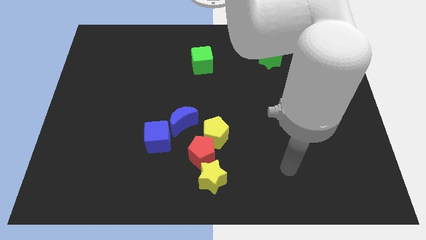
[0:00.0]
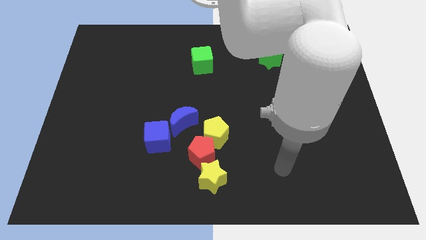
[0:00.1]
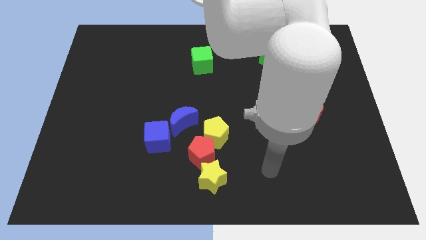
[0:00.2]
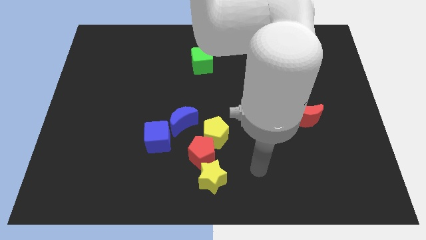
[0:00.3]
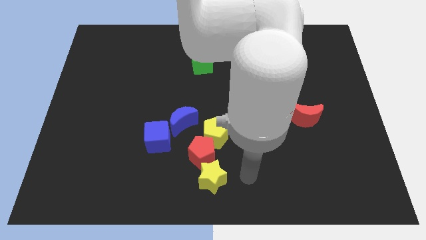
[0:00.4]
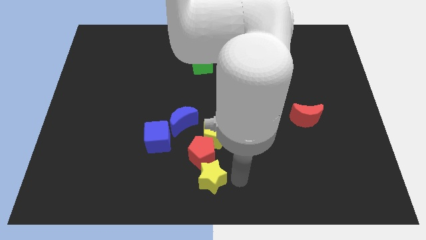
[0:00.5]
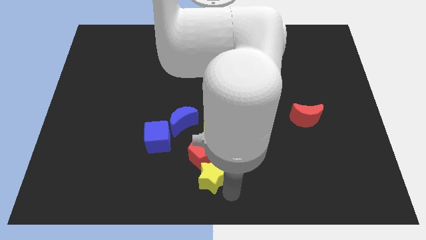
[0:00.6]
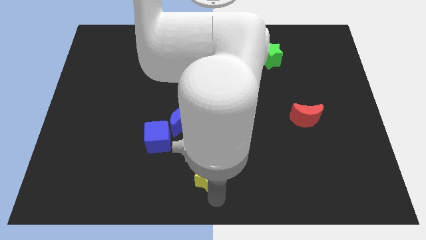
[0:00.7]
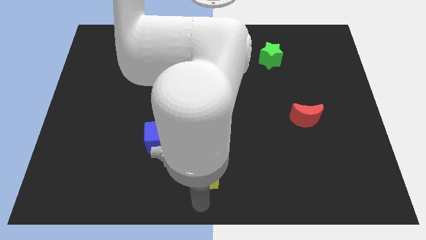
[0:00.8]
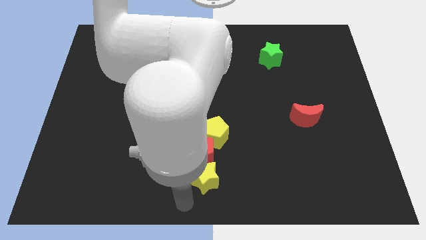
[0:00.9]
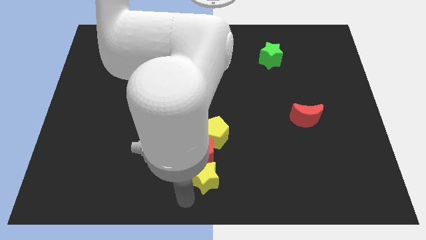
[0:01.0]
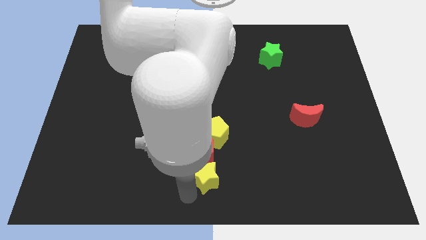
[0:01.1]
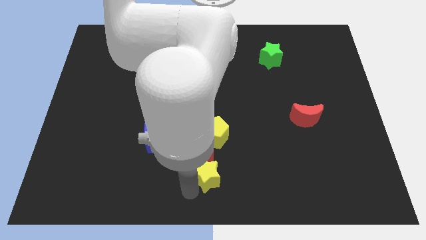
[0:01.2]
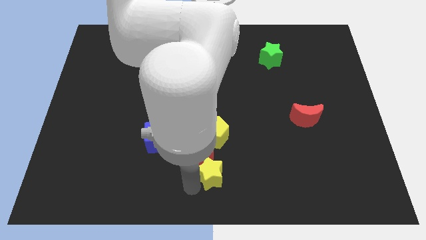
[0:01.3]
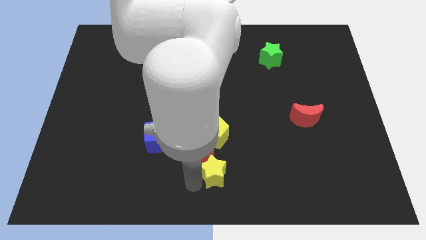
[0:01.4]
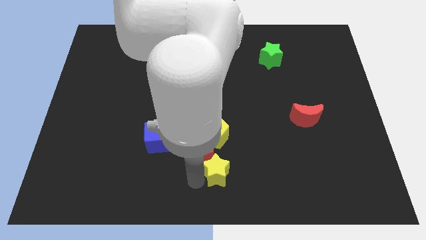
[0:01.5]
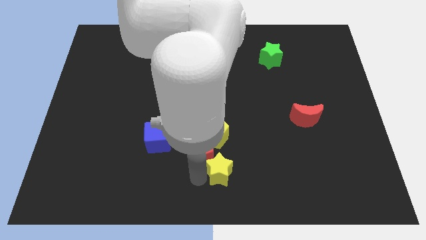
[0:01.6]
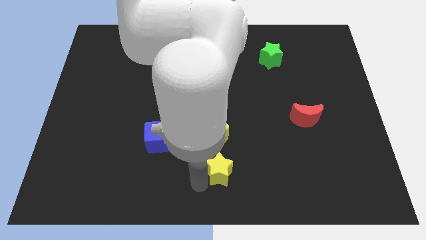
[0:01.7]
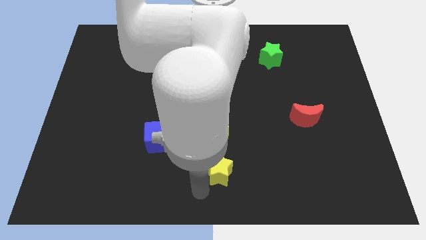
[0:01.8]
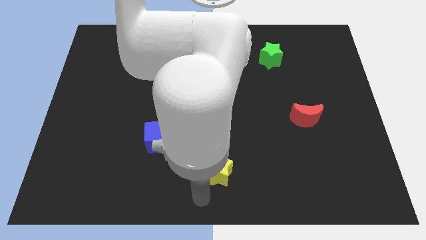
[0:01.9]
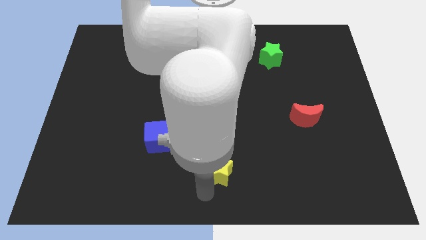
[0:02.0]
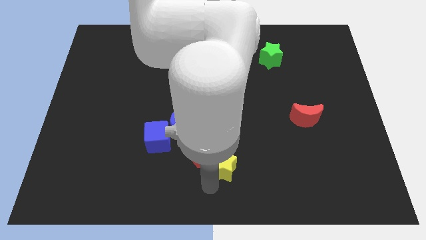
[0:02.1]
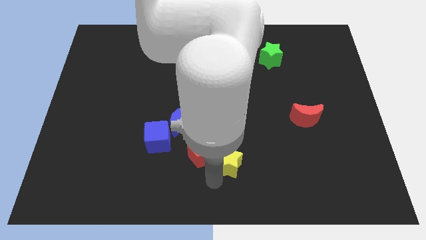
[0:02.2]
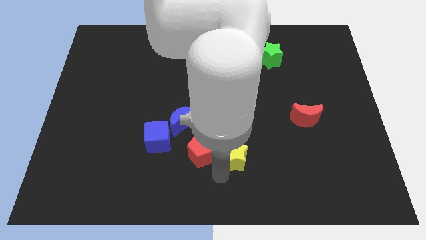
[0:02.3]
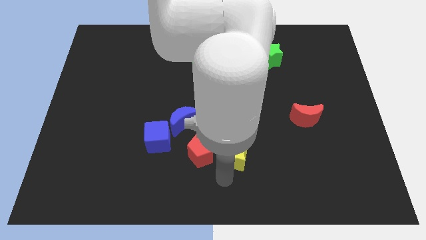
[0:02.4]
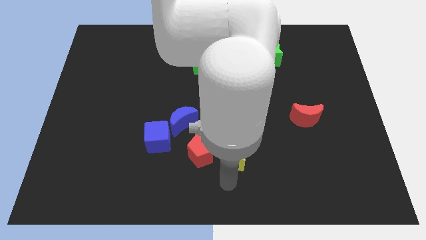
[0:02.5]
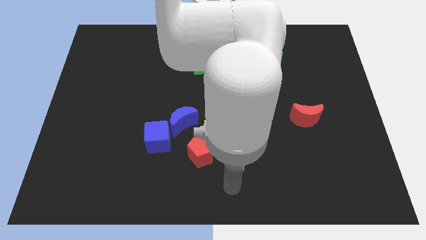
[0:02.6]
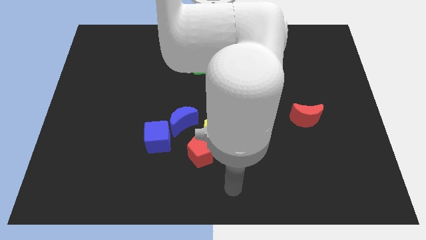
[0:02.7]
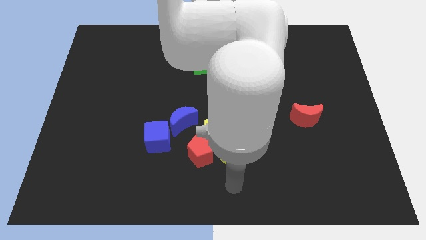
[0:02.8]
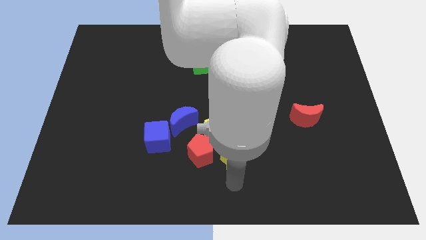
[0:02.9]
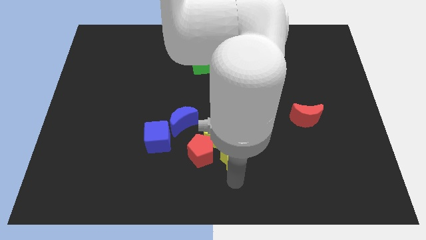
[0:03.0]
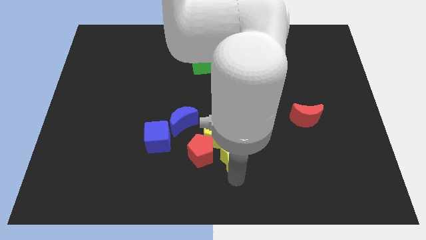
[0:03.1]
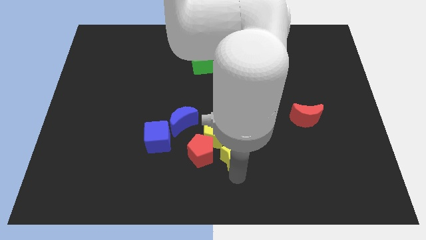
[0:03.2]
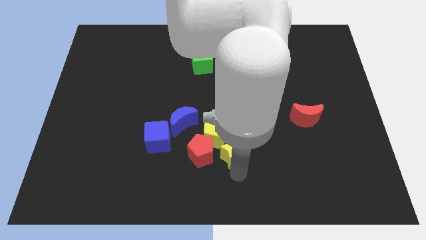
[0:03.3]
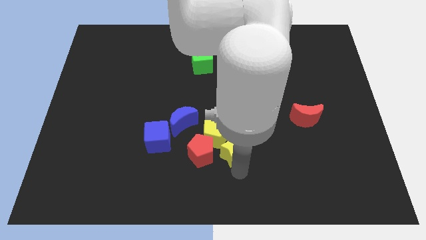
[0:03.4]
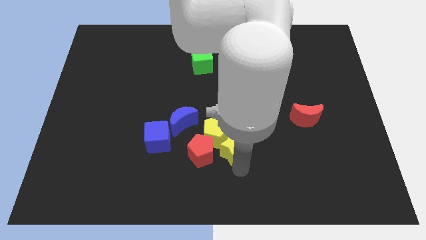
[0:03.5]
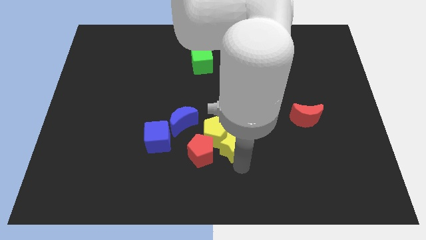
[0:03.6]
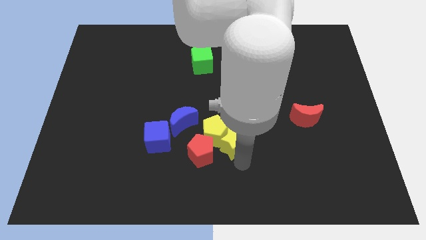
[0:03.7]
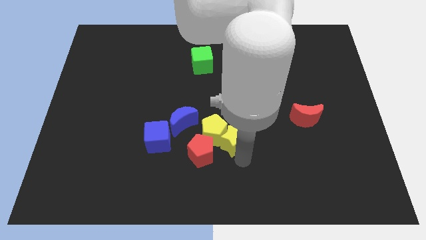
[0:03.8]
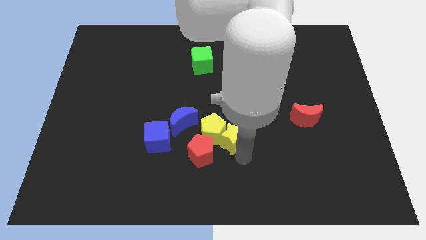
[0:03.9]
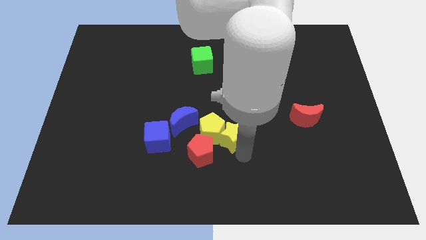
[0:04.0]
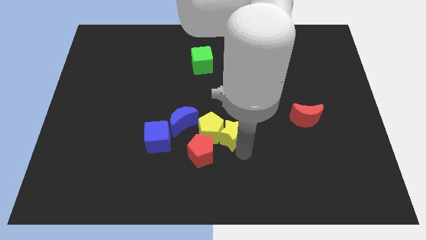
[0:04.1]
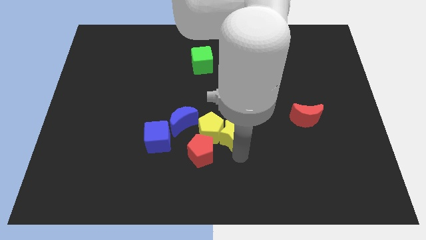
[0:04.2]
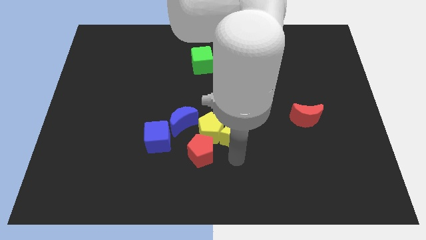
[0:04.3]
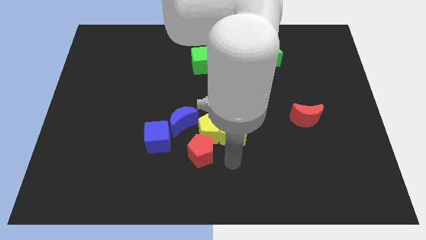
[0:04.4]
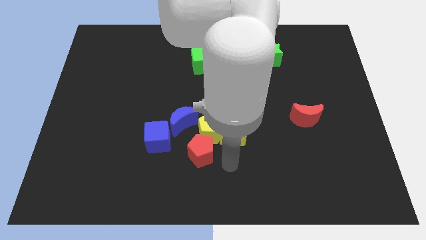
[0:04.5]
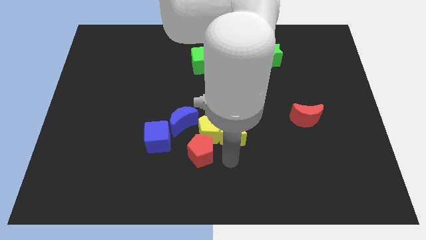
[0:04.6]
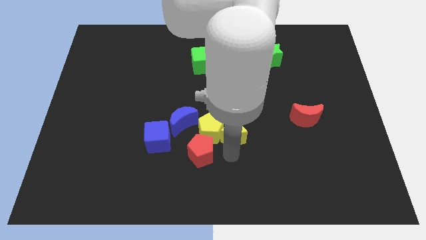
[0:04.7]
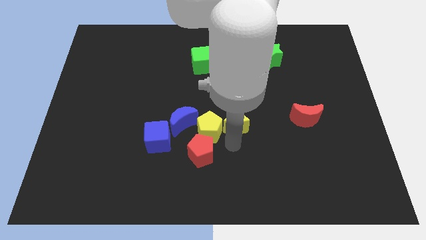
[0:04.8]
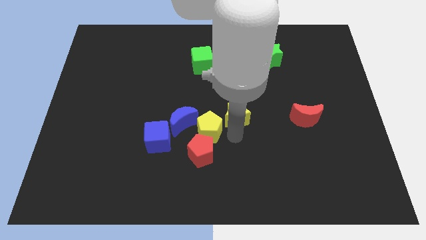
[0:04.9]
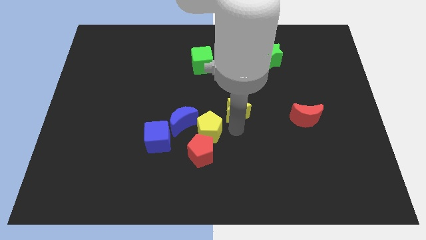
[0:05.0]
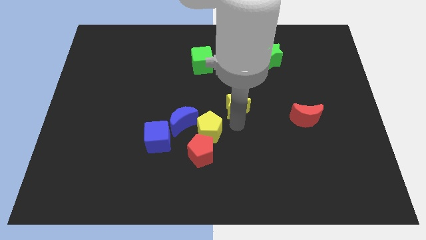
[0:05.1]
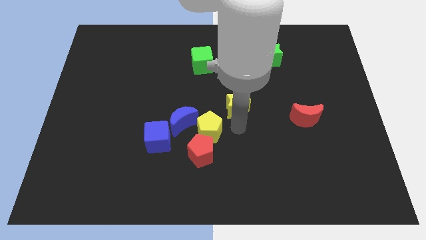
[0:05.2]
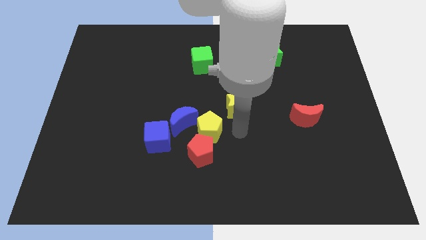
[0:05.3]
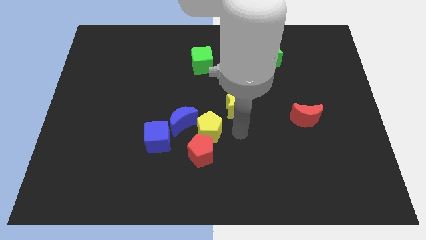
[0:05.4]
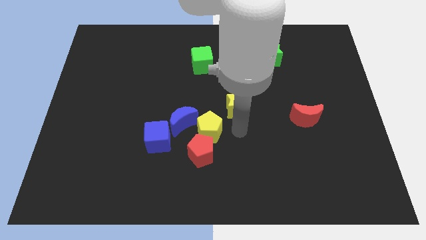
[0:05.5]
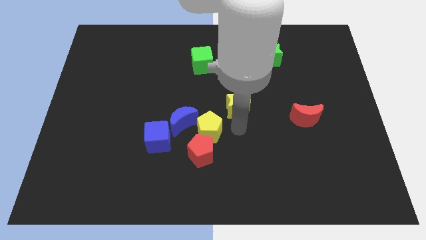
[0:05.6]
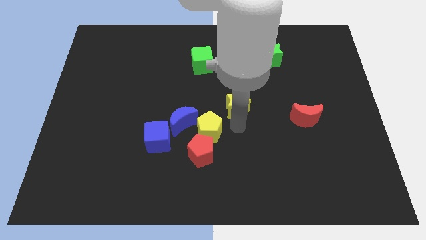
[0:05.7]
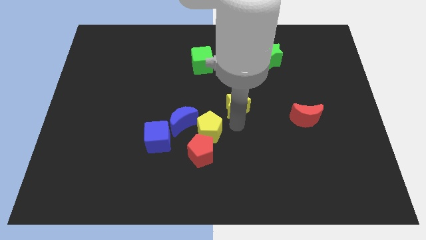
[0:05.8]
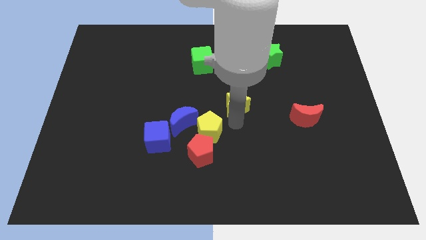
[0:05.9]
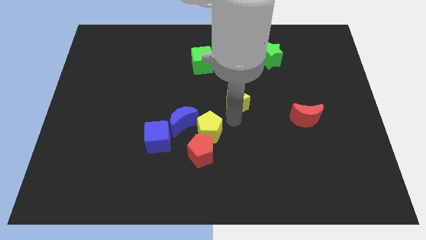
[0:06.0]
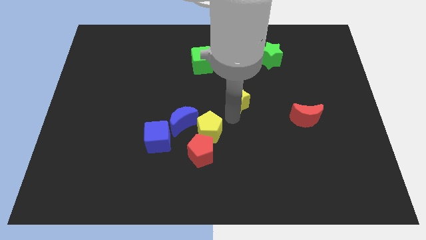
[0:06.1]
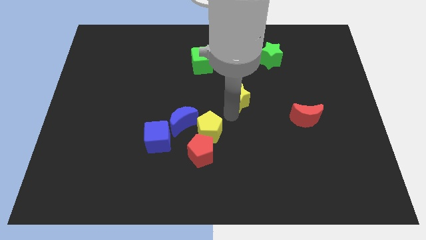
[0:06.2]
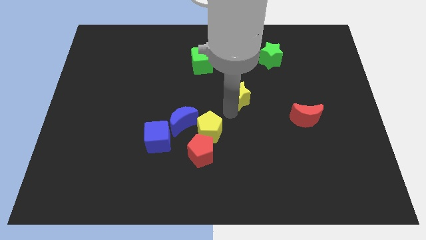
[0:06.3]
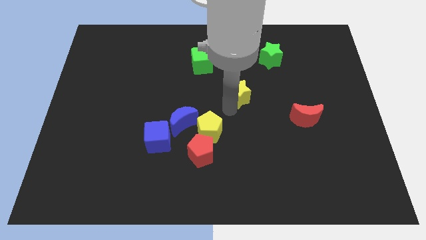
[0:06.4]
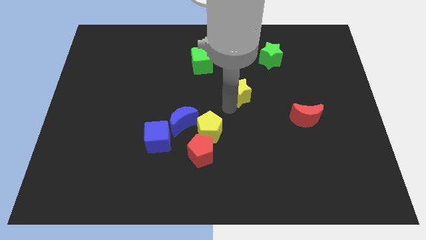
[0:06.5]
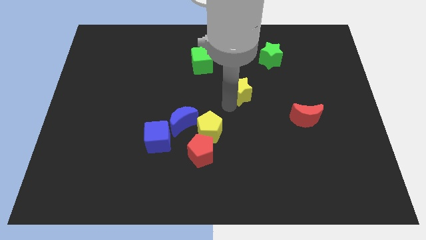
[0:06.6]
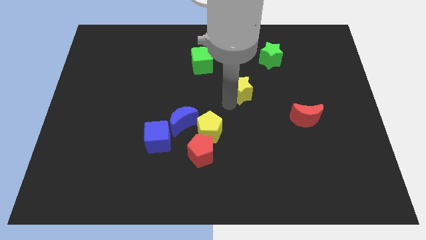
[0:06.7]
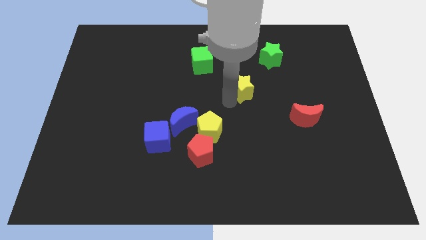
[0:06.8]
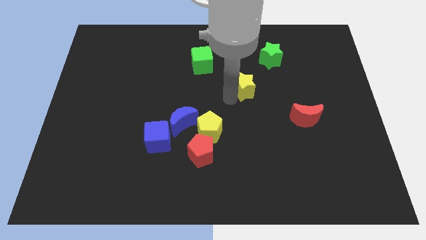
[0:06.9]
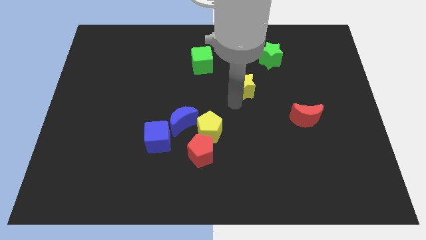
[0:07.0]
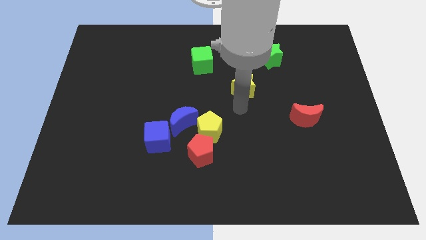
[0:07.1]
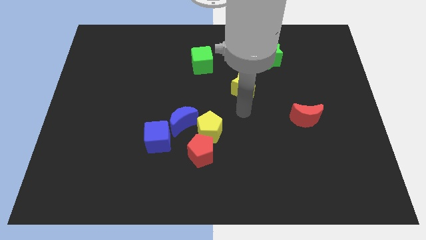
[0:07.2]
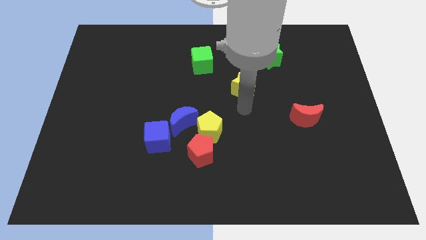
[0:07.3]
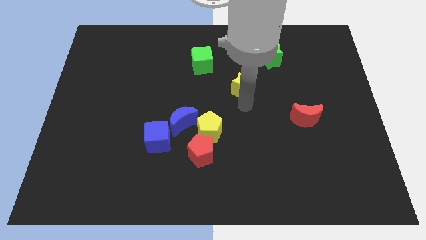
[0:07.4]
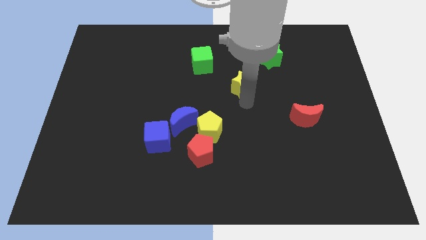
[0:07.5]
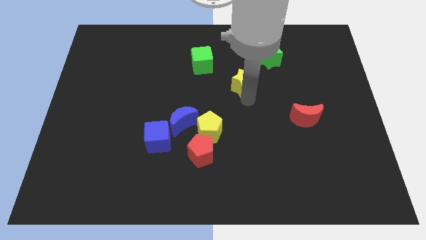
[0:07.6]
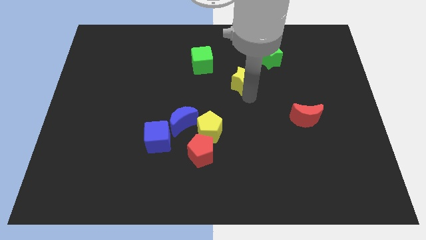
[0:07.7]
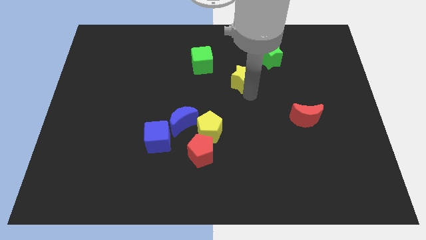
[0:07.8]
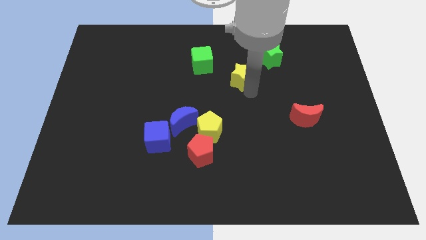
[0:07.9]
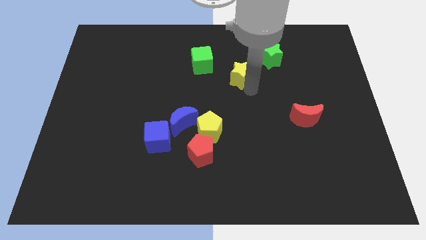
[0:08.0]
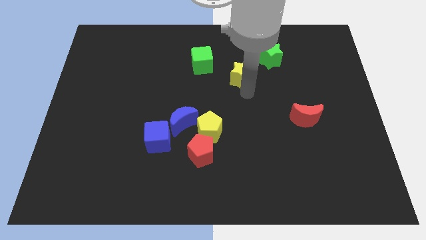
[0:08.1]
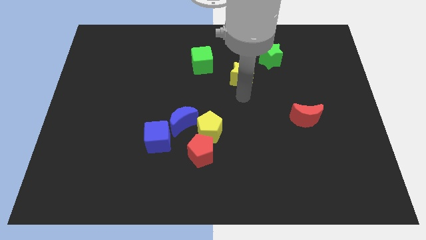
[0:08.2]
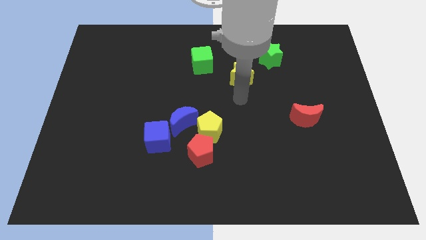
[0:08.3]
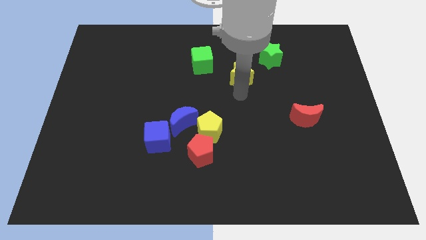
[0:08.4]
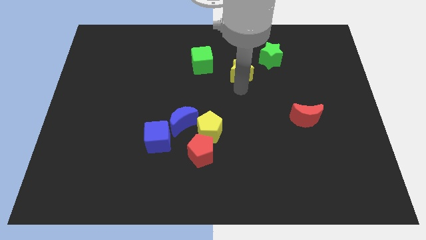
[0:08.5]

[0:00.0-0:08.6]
put the yellow star to the right of the green cube
